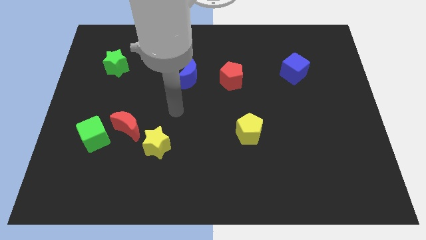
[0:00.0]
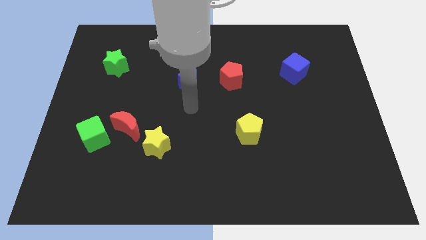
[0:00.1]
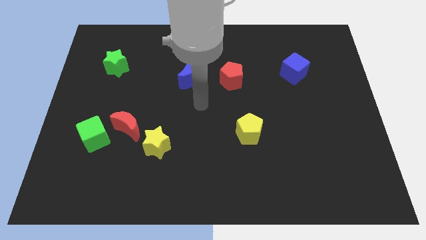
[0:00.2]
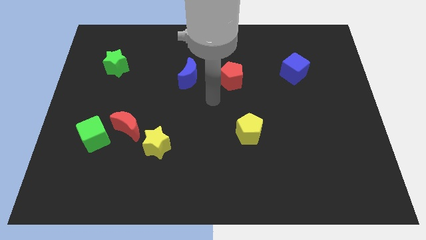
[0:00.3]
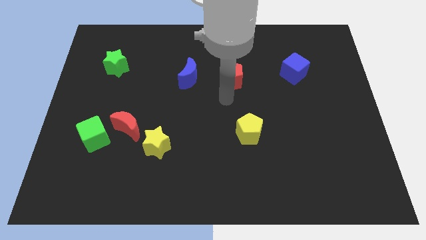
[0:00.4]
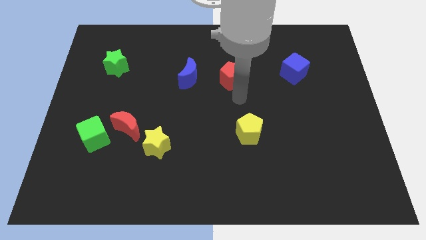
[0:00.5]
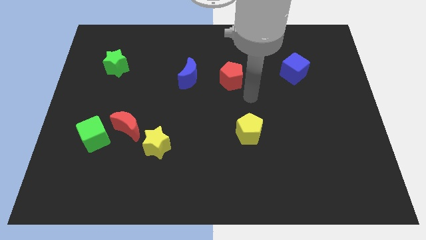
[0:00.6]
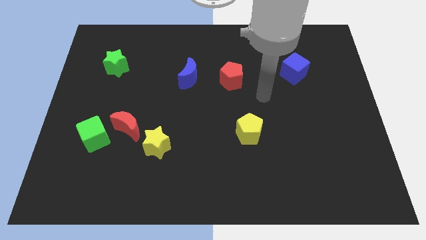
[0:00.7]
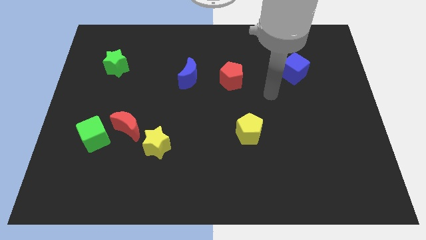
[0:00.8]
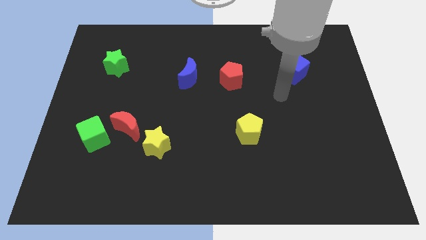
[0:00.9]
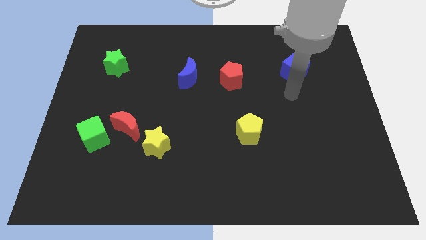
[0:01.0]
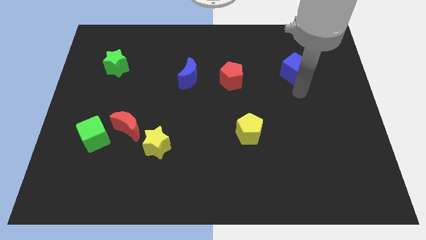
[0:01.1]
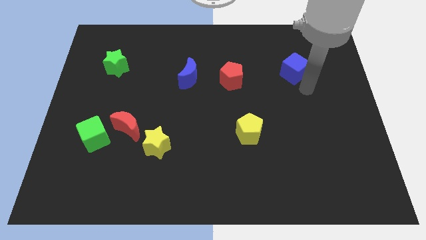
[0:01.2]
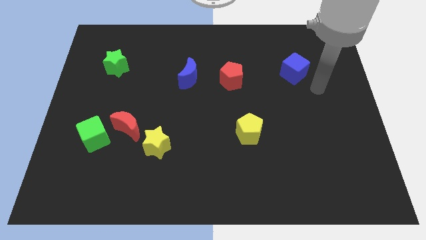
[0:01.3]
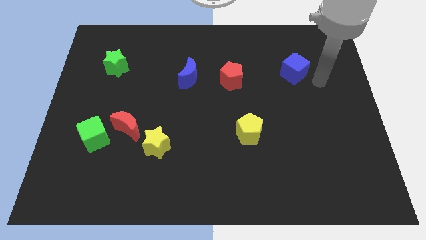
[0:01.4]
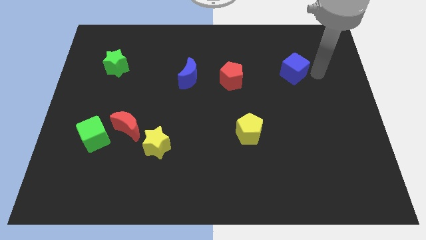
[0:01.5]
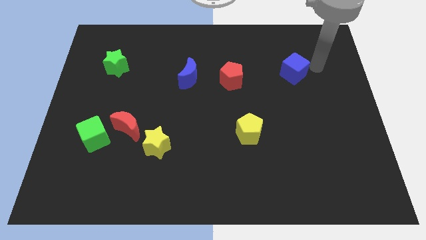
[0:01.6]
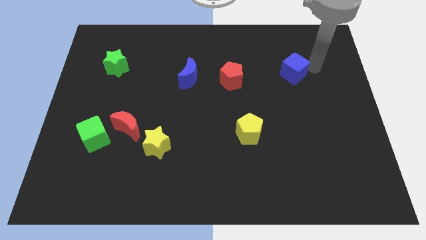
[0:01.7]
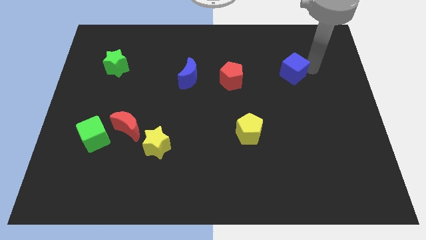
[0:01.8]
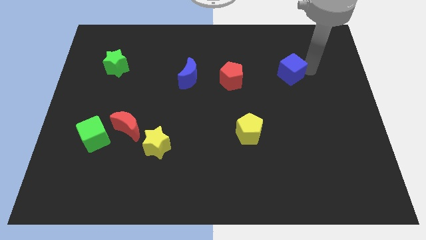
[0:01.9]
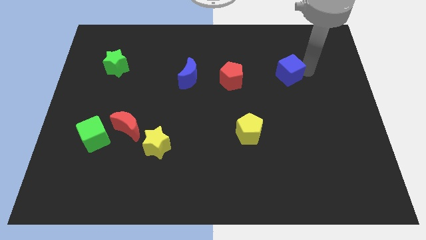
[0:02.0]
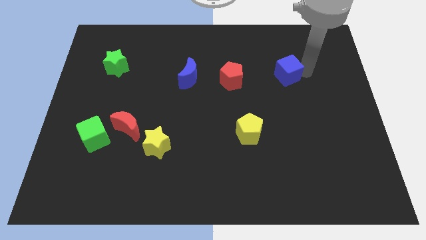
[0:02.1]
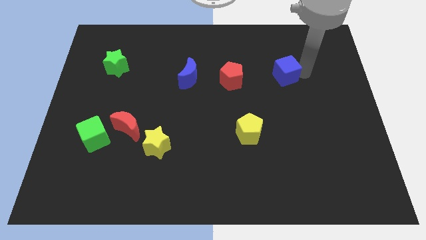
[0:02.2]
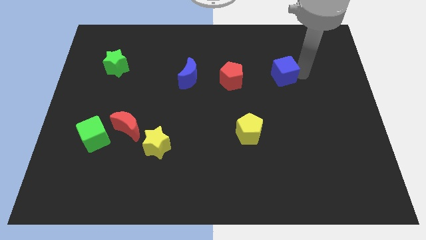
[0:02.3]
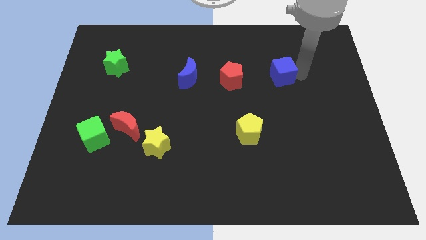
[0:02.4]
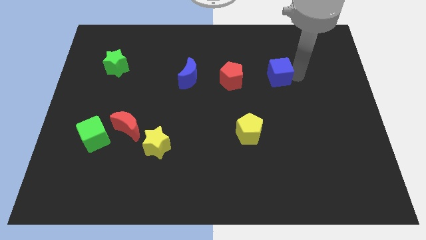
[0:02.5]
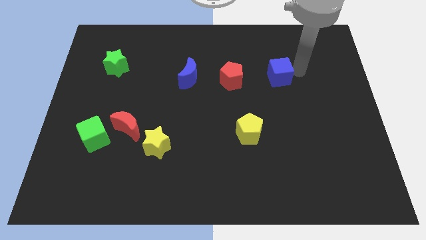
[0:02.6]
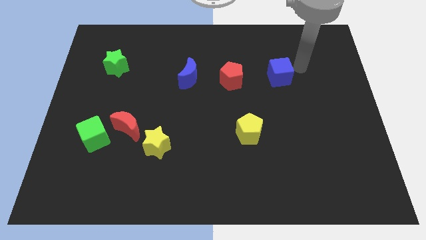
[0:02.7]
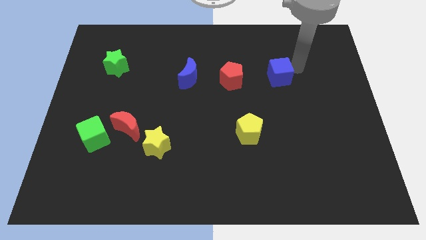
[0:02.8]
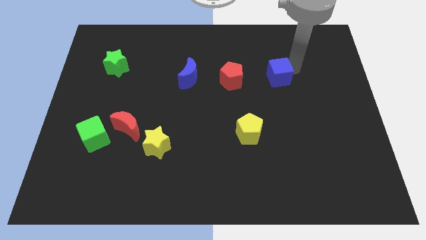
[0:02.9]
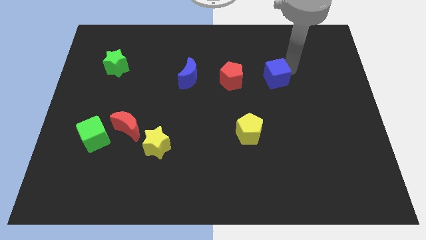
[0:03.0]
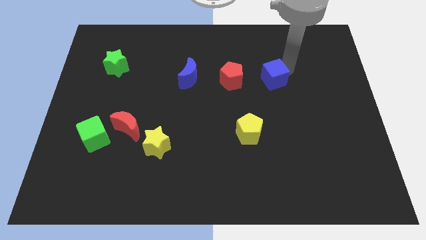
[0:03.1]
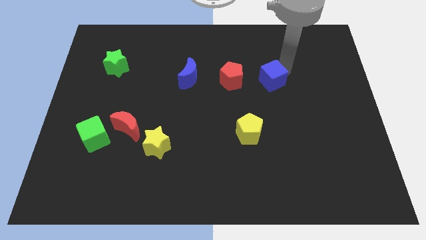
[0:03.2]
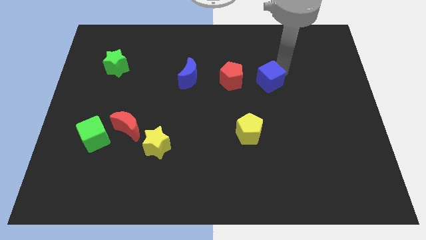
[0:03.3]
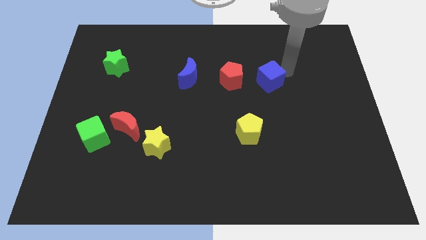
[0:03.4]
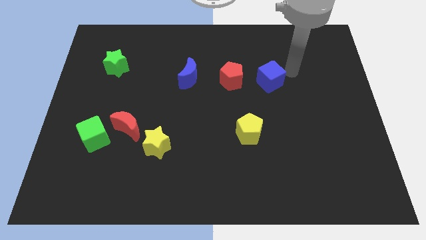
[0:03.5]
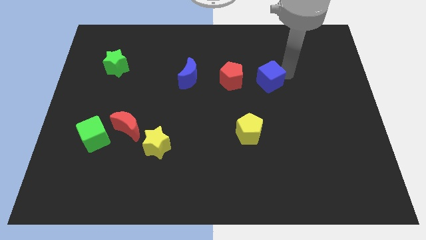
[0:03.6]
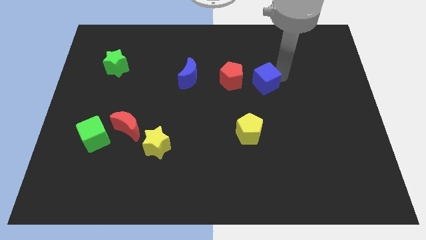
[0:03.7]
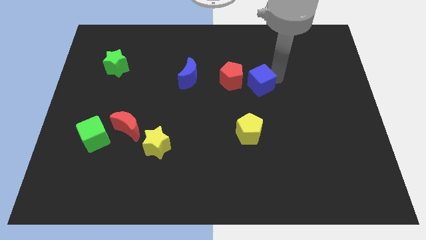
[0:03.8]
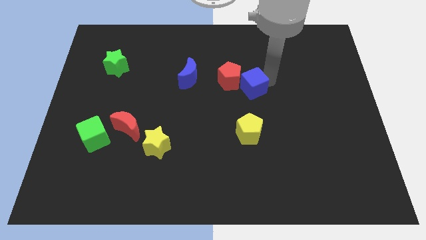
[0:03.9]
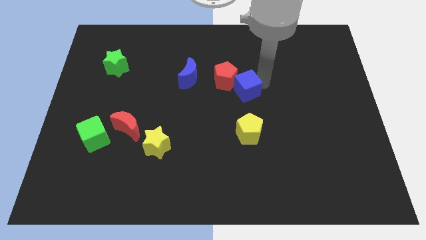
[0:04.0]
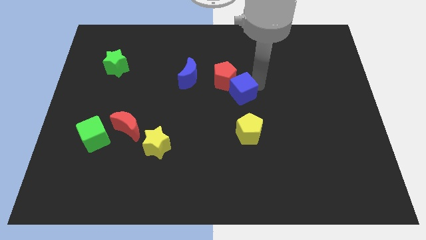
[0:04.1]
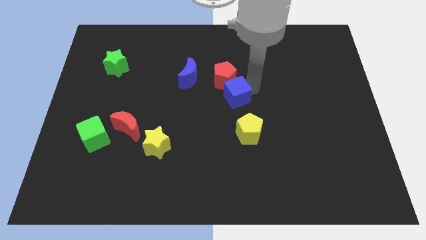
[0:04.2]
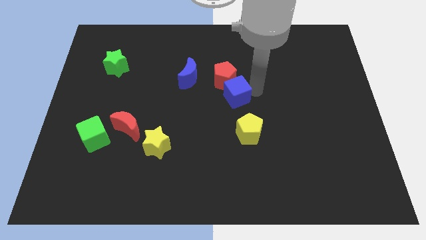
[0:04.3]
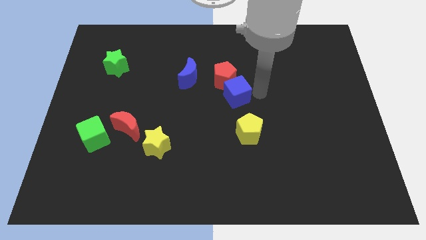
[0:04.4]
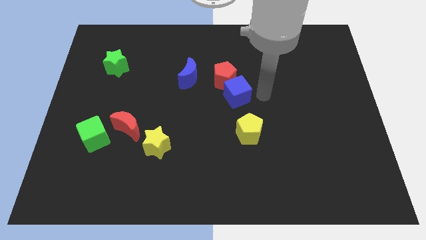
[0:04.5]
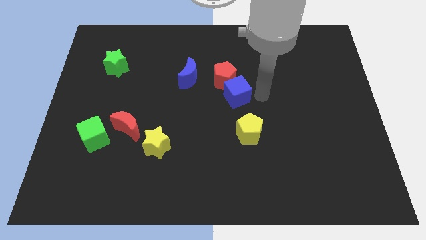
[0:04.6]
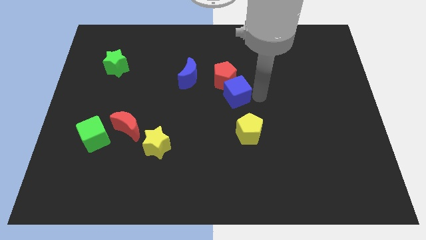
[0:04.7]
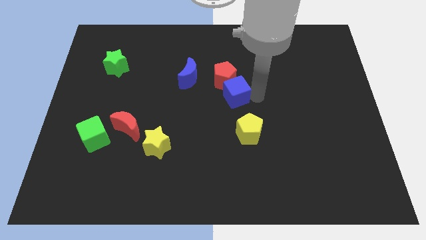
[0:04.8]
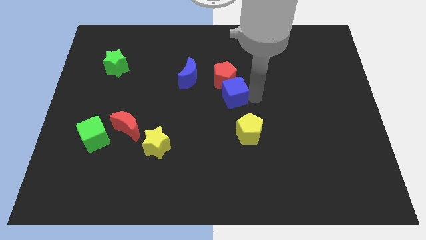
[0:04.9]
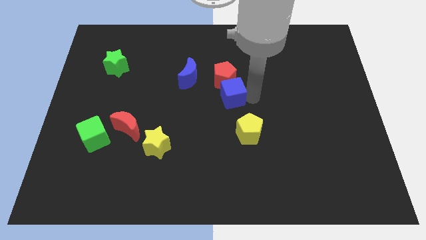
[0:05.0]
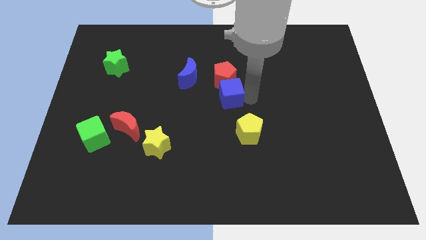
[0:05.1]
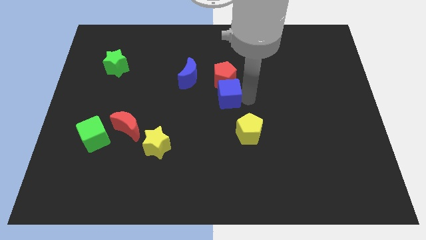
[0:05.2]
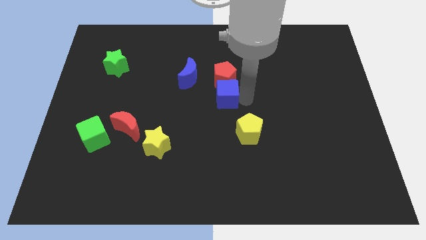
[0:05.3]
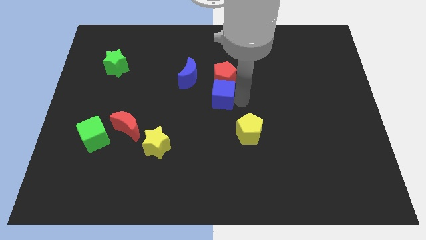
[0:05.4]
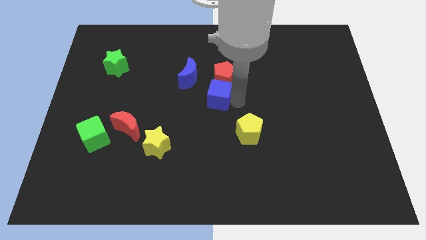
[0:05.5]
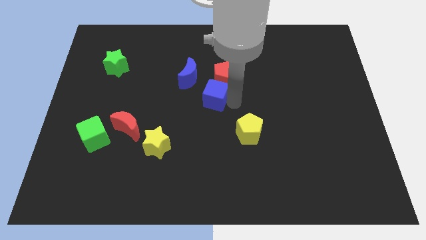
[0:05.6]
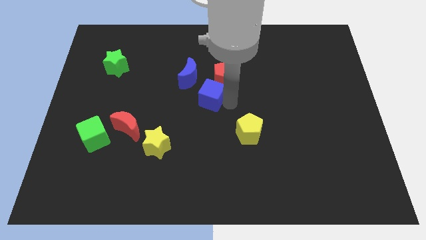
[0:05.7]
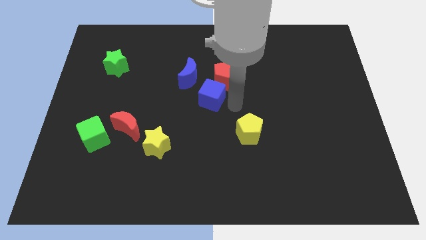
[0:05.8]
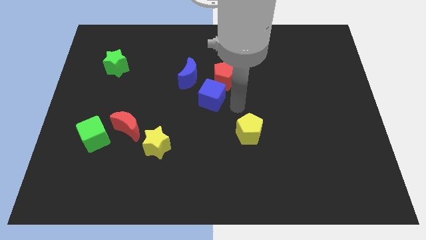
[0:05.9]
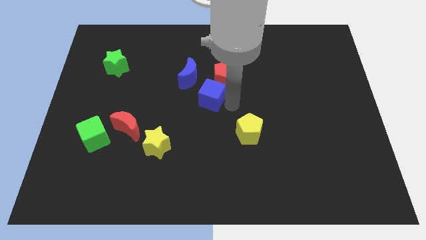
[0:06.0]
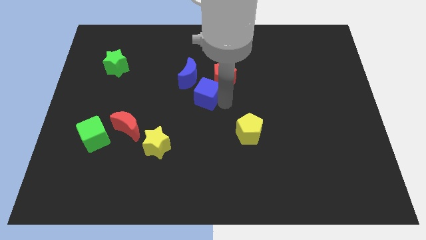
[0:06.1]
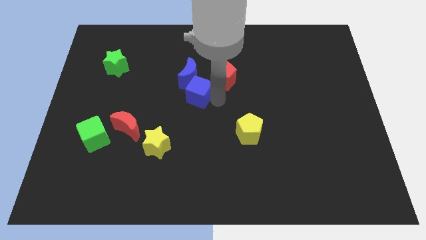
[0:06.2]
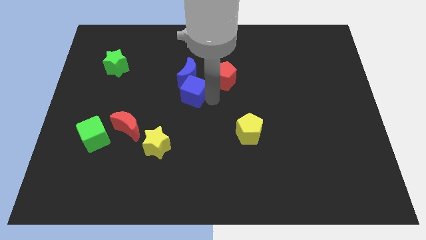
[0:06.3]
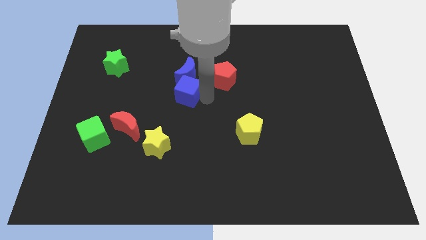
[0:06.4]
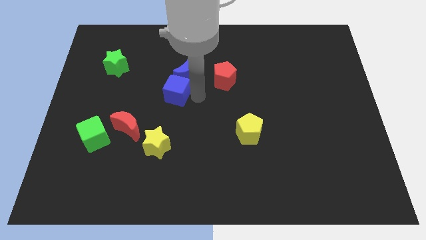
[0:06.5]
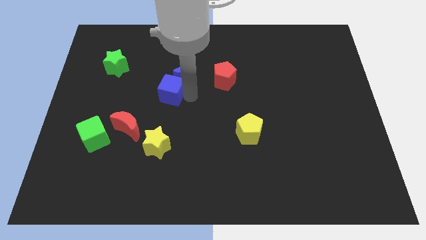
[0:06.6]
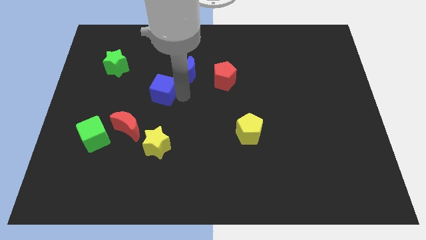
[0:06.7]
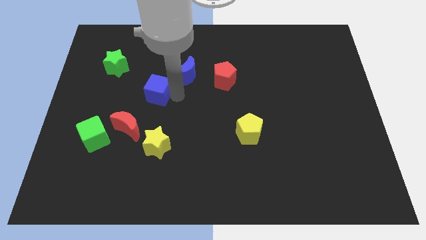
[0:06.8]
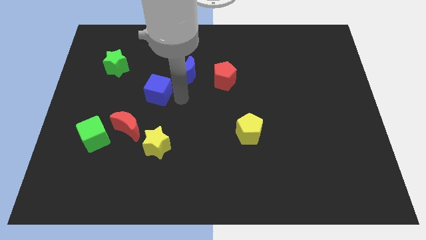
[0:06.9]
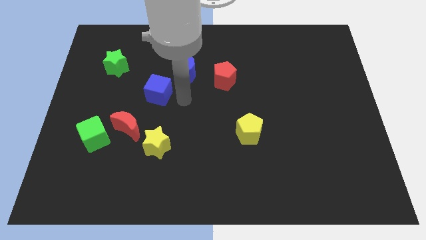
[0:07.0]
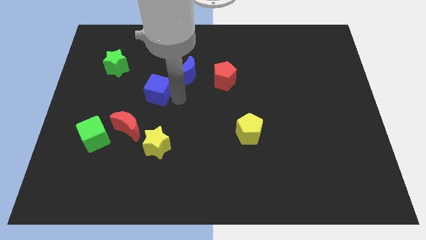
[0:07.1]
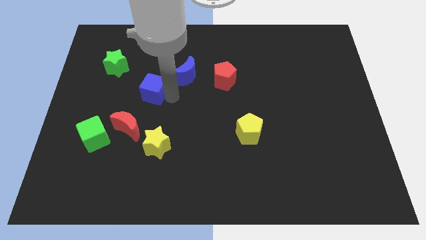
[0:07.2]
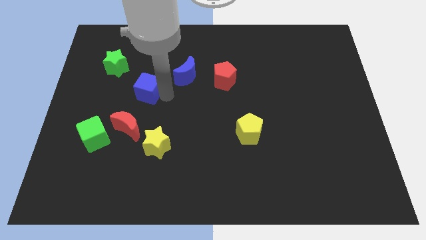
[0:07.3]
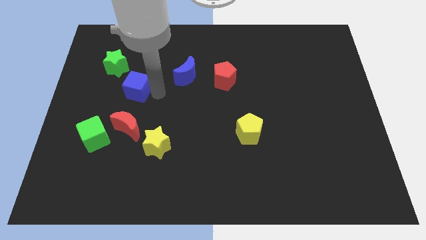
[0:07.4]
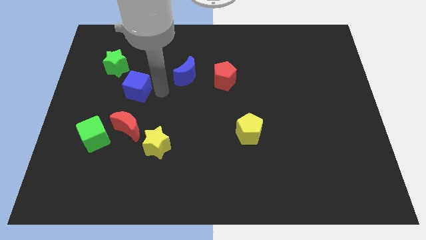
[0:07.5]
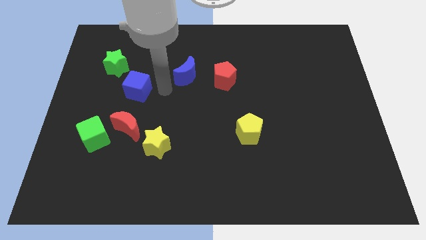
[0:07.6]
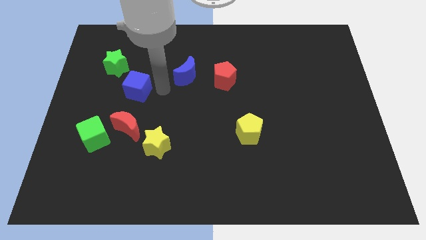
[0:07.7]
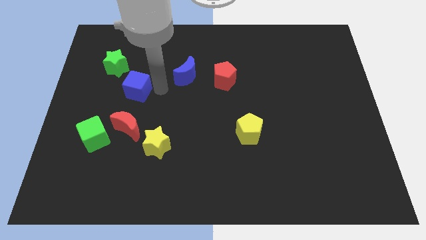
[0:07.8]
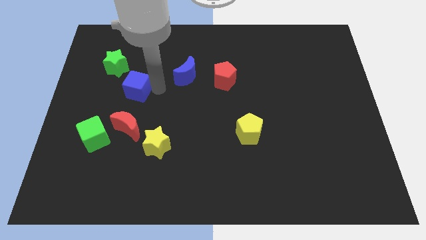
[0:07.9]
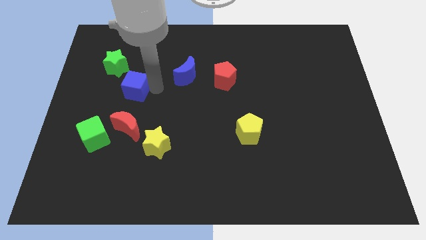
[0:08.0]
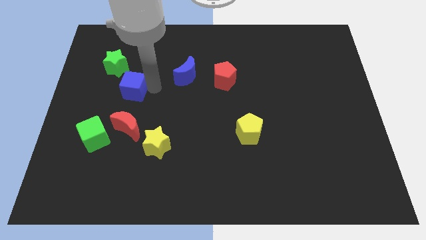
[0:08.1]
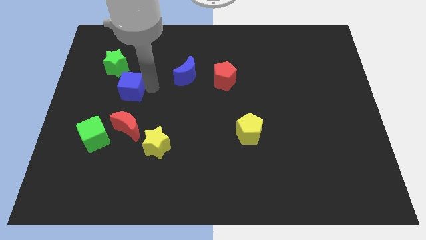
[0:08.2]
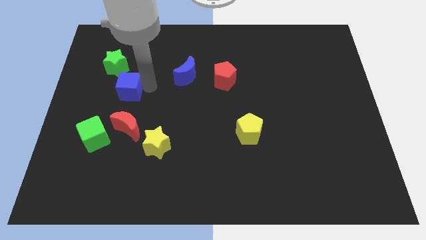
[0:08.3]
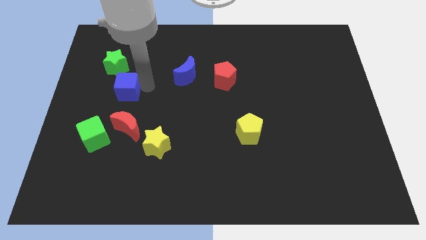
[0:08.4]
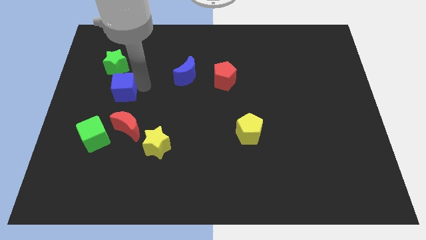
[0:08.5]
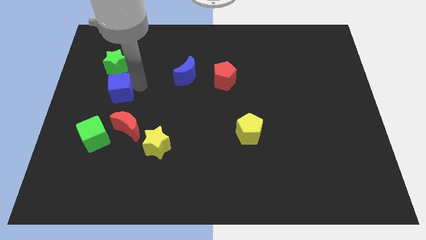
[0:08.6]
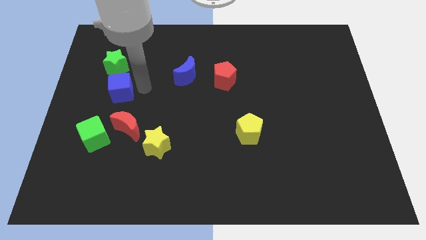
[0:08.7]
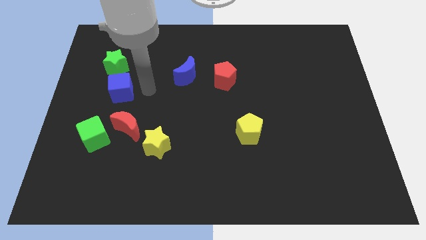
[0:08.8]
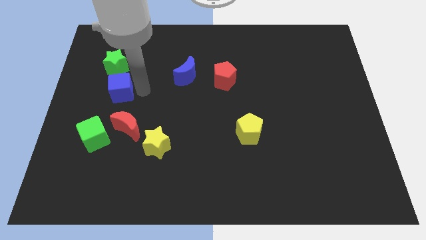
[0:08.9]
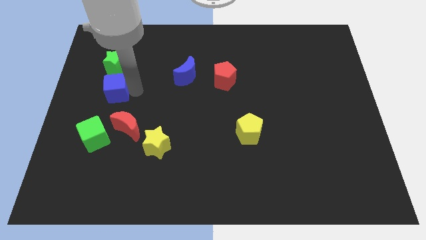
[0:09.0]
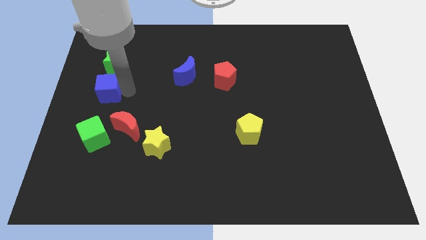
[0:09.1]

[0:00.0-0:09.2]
slide the blue cube to the left side
